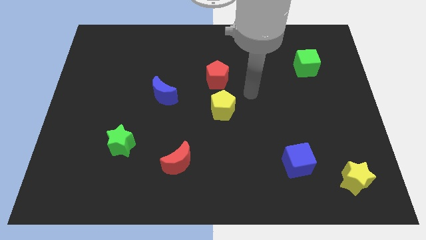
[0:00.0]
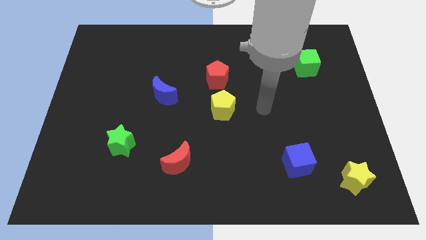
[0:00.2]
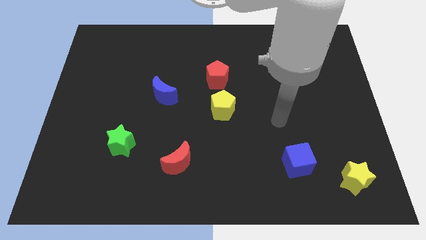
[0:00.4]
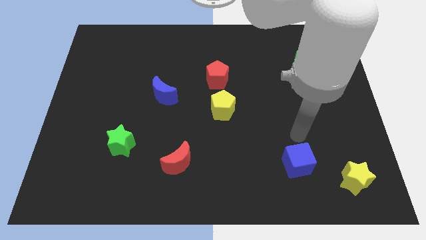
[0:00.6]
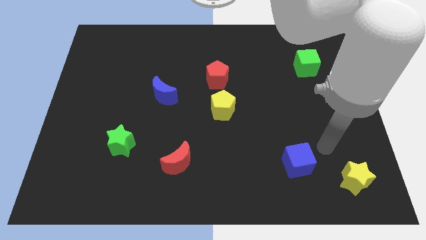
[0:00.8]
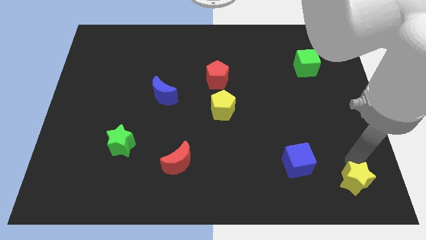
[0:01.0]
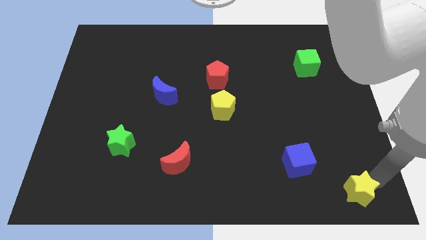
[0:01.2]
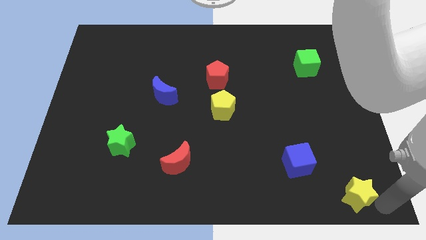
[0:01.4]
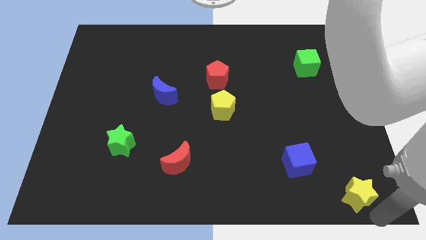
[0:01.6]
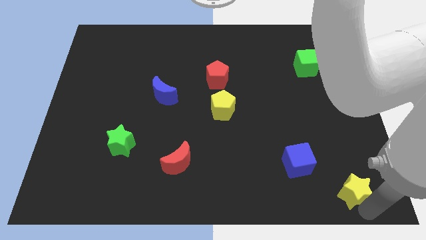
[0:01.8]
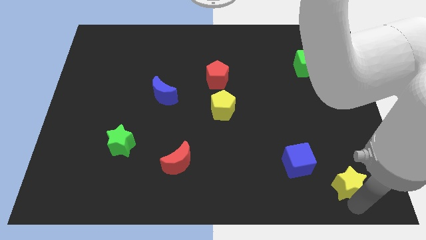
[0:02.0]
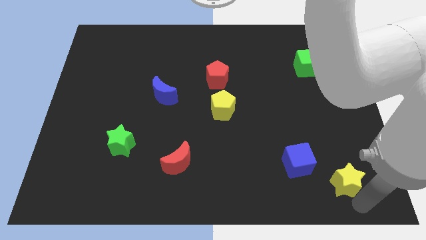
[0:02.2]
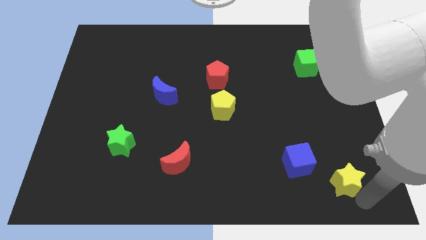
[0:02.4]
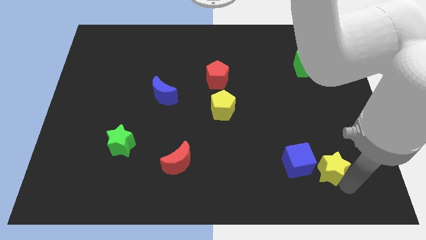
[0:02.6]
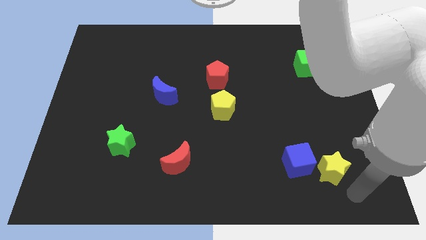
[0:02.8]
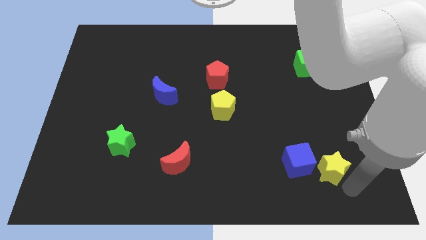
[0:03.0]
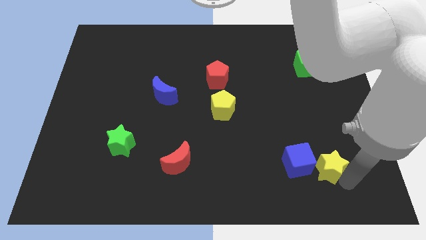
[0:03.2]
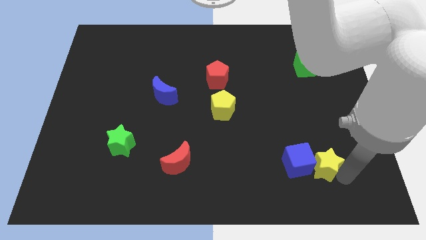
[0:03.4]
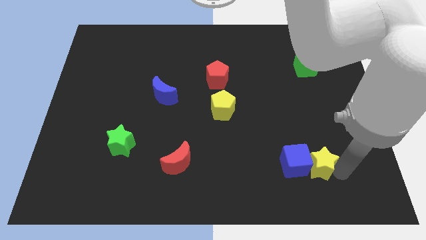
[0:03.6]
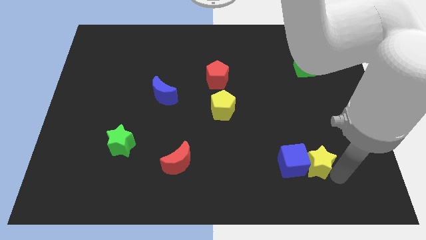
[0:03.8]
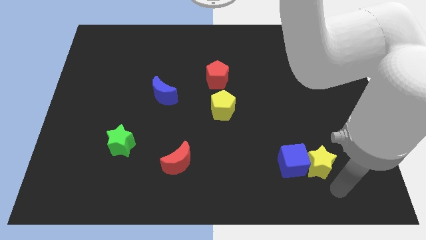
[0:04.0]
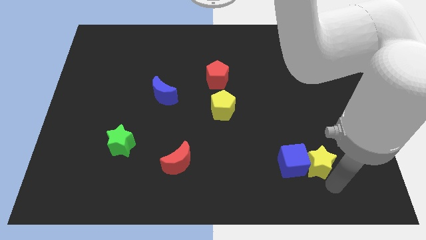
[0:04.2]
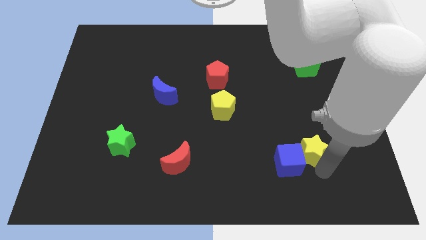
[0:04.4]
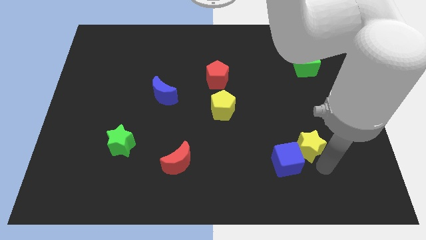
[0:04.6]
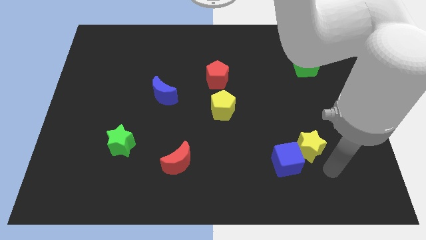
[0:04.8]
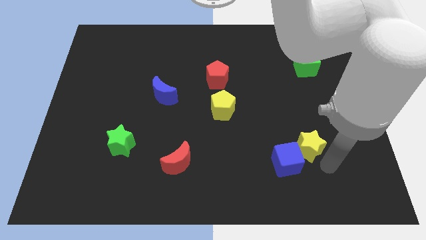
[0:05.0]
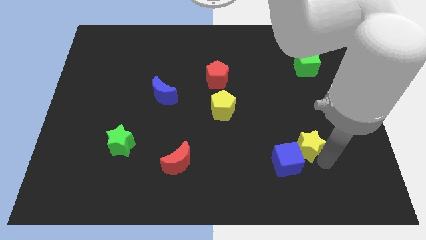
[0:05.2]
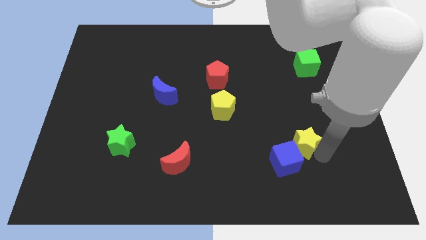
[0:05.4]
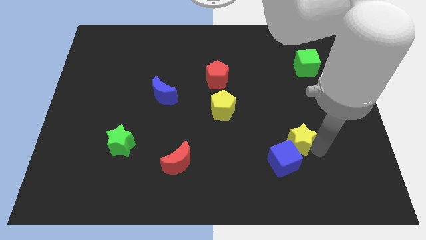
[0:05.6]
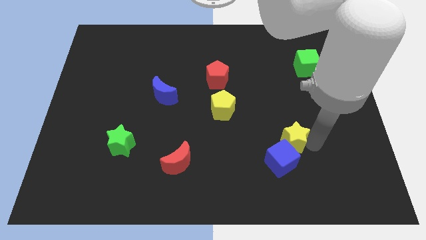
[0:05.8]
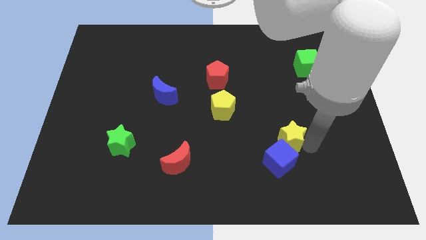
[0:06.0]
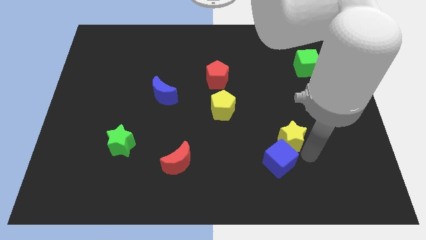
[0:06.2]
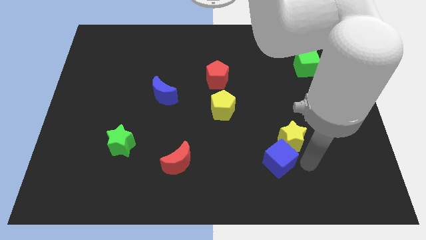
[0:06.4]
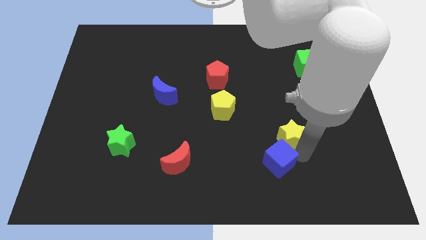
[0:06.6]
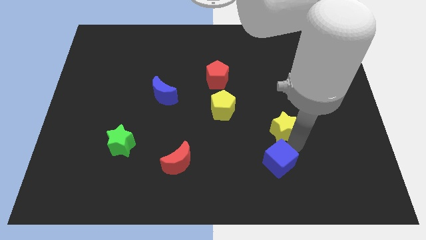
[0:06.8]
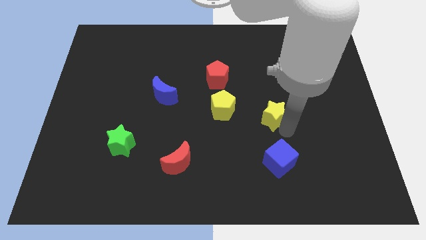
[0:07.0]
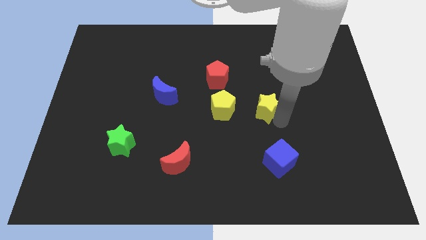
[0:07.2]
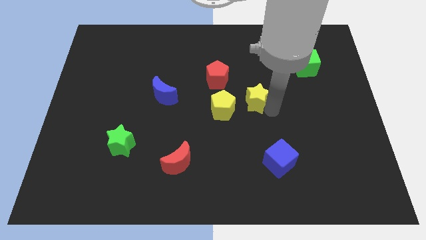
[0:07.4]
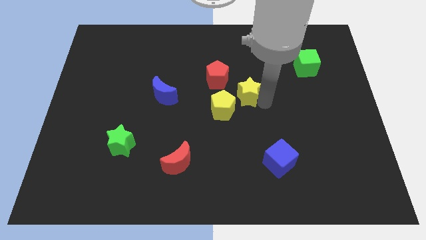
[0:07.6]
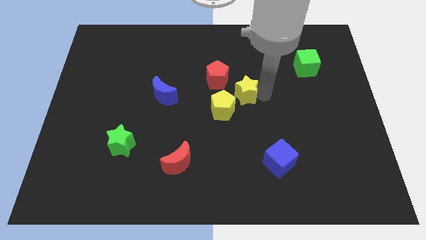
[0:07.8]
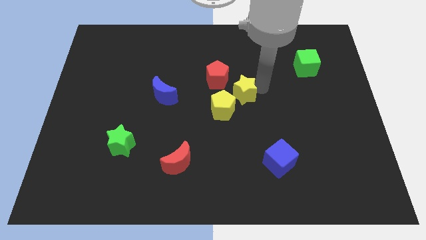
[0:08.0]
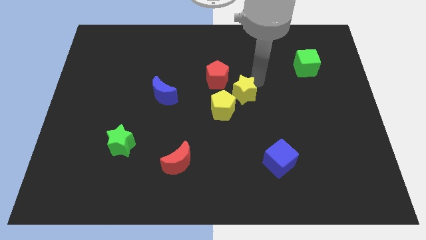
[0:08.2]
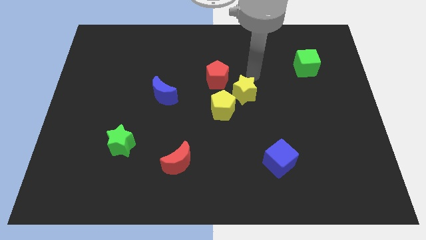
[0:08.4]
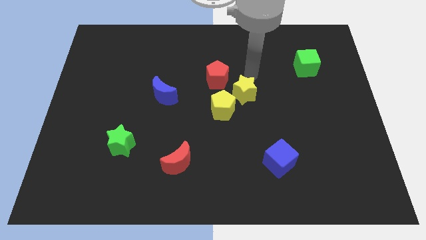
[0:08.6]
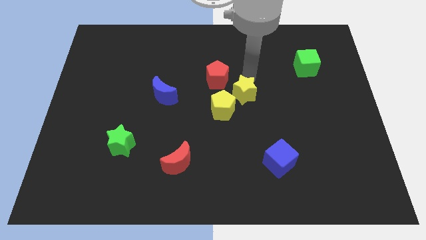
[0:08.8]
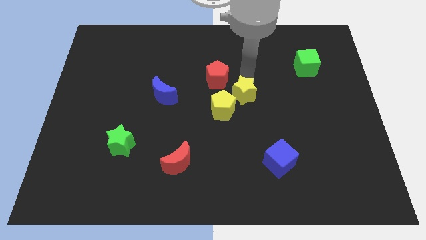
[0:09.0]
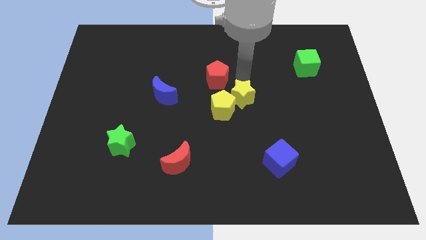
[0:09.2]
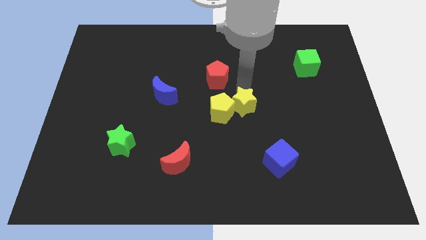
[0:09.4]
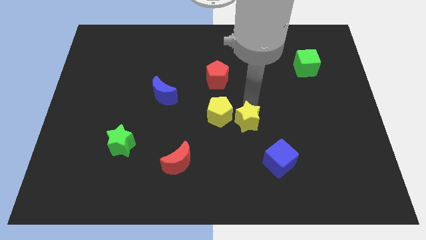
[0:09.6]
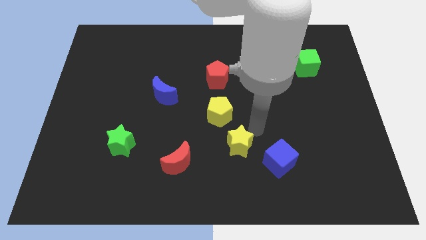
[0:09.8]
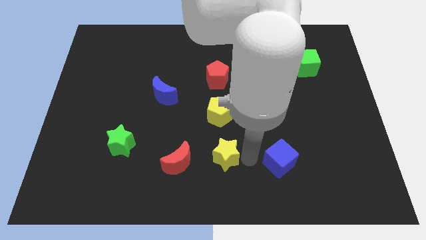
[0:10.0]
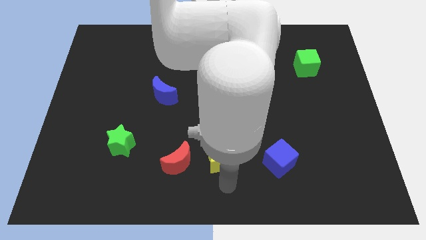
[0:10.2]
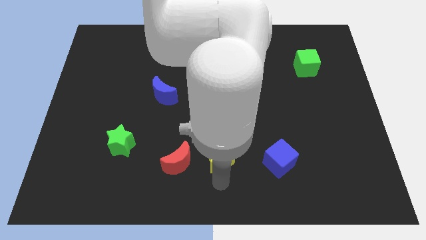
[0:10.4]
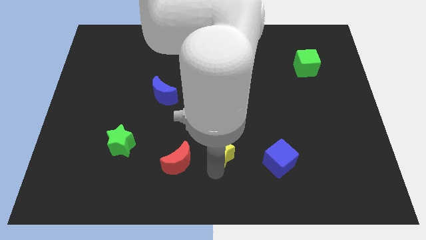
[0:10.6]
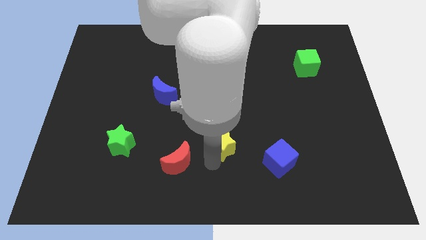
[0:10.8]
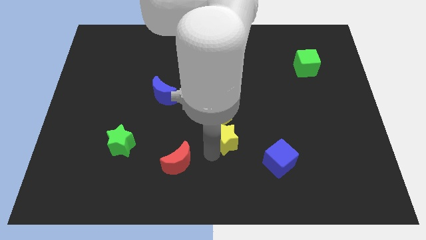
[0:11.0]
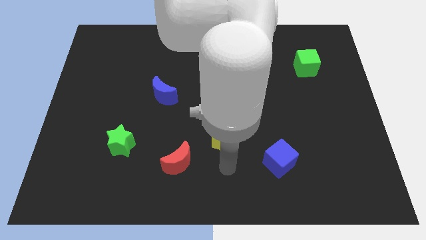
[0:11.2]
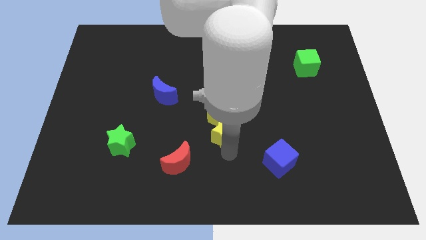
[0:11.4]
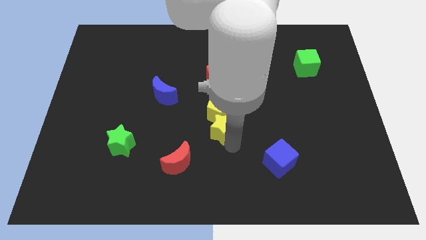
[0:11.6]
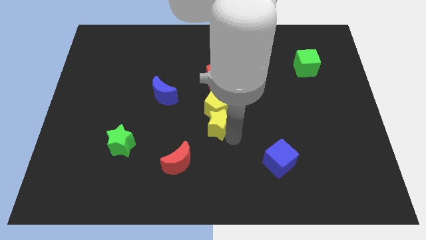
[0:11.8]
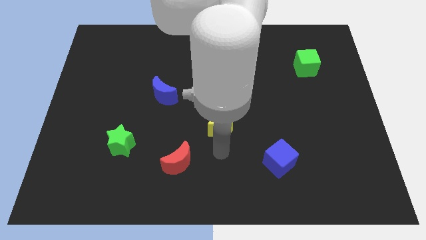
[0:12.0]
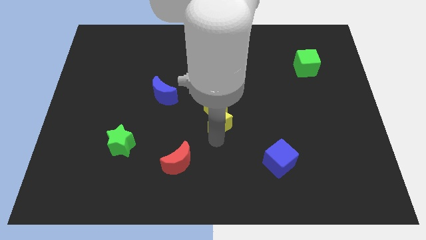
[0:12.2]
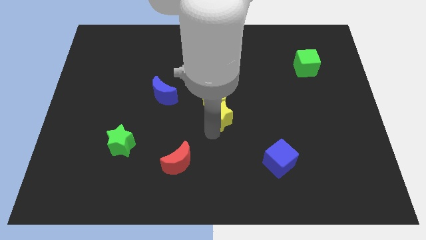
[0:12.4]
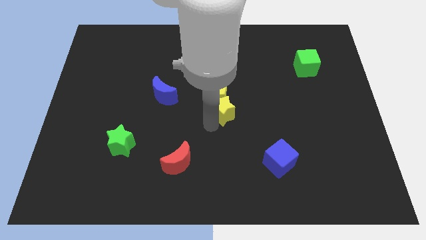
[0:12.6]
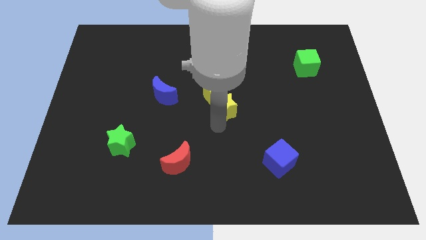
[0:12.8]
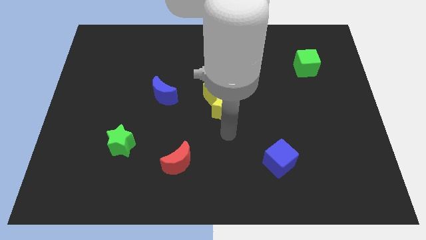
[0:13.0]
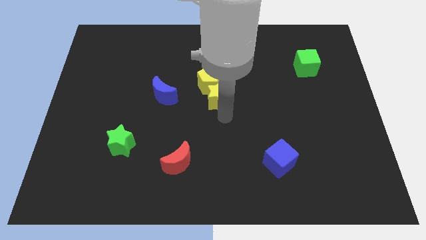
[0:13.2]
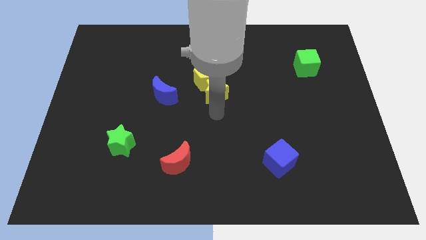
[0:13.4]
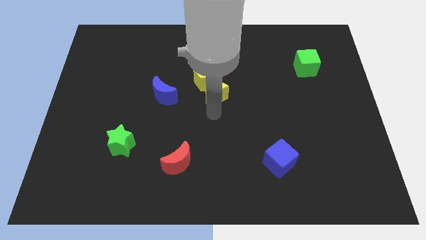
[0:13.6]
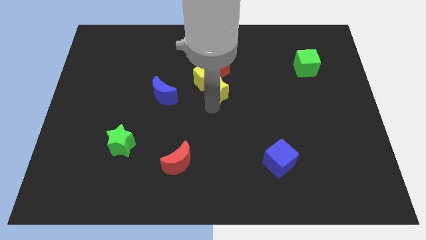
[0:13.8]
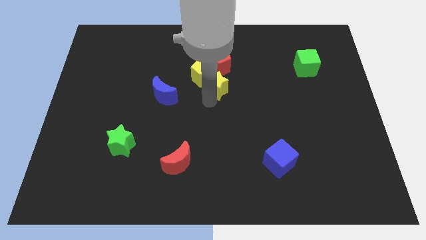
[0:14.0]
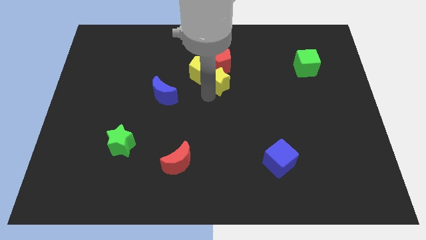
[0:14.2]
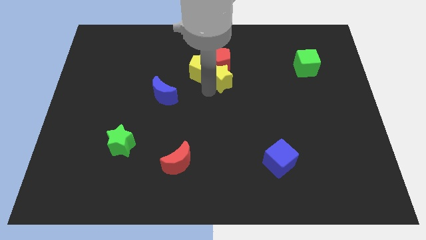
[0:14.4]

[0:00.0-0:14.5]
move the yellow star to the red pentagon
